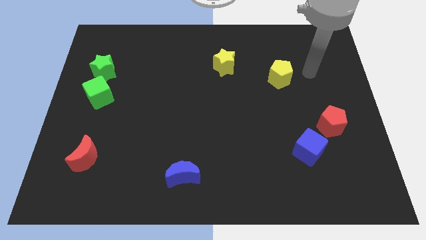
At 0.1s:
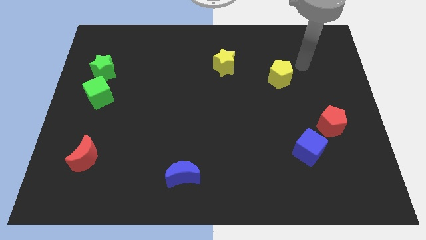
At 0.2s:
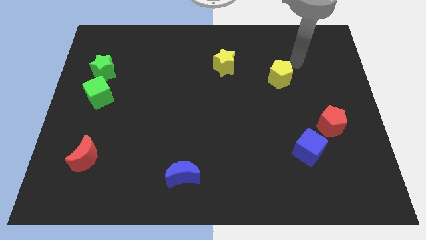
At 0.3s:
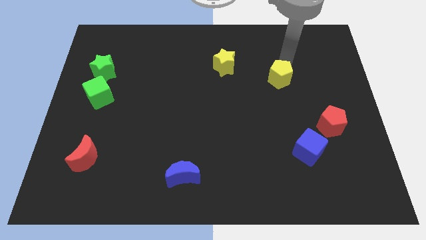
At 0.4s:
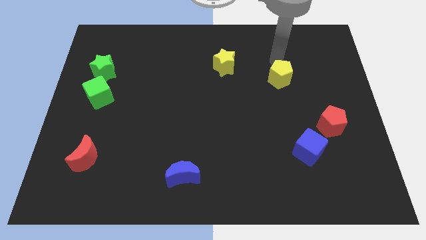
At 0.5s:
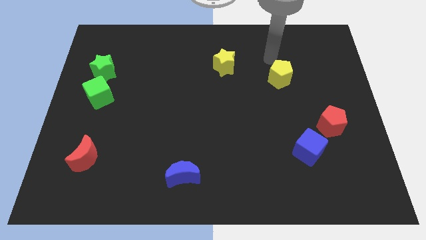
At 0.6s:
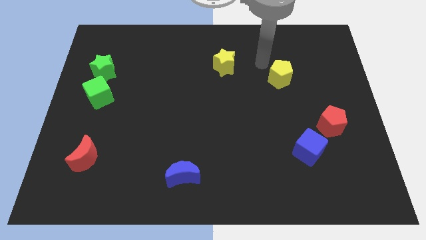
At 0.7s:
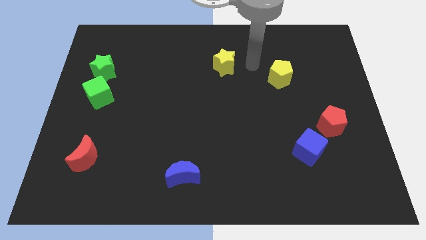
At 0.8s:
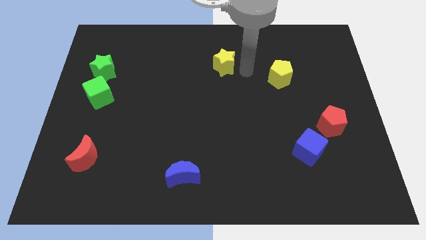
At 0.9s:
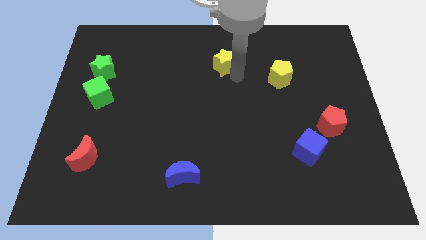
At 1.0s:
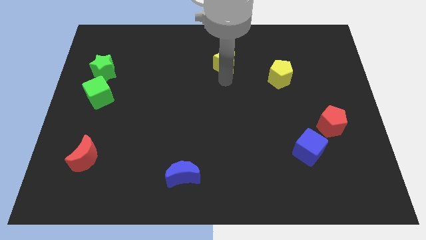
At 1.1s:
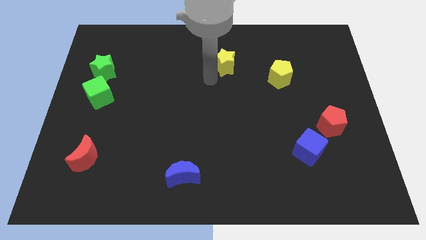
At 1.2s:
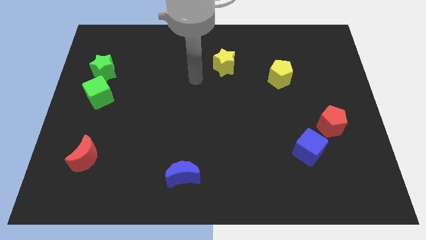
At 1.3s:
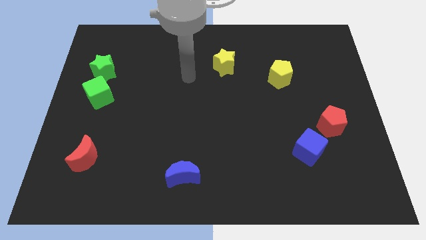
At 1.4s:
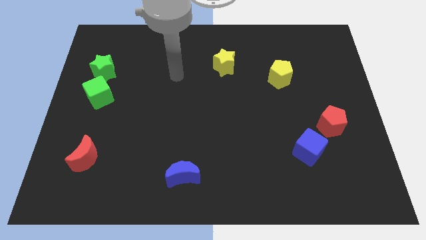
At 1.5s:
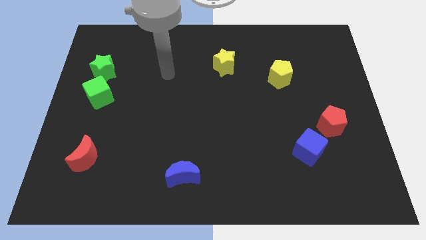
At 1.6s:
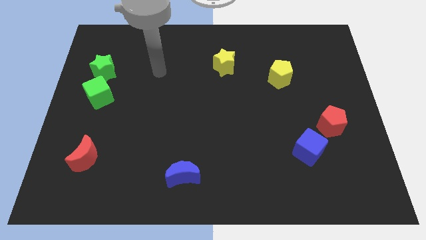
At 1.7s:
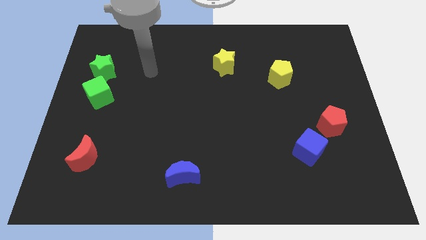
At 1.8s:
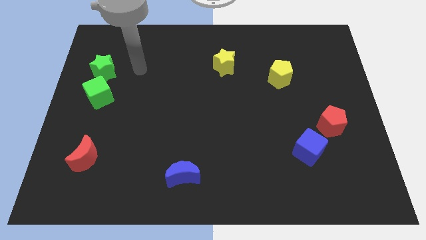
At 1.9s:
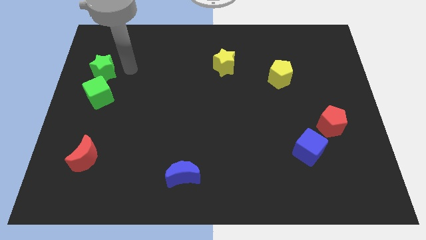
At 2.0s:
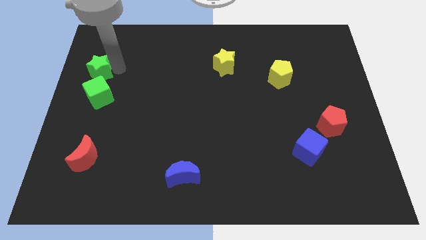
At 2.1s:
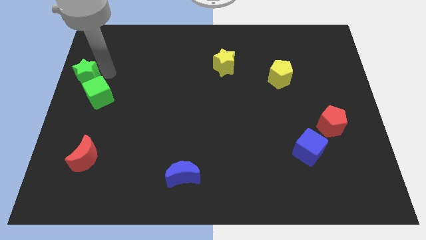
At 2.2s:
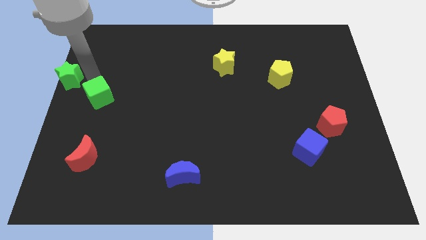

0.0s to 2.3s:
move the green cube away from the green star

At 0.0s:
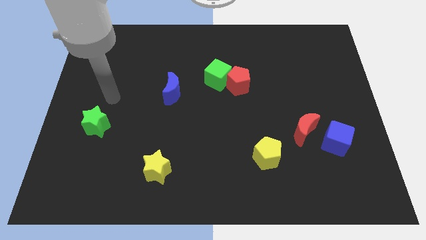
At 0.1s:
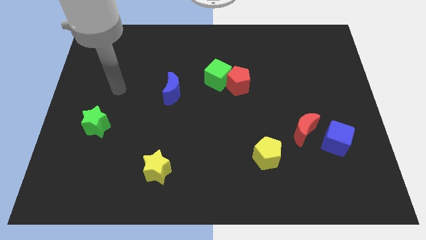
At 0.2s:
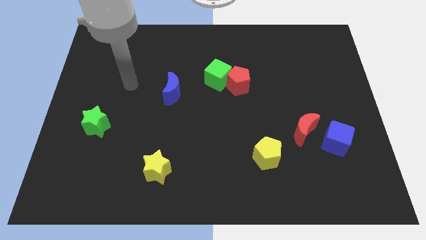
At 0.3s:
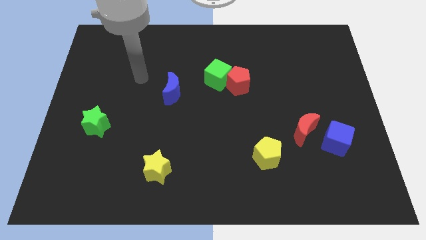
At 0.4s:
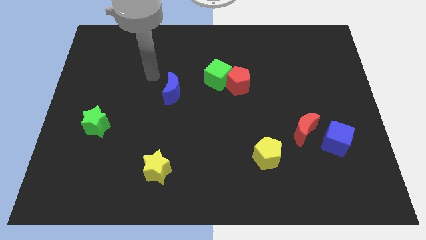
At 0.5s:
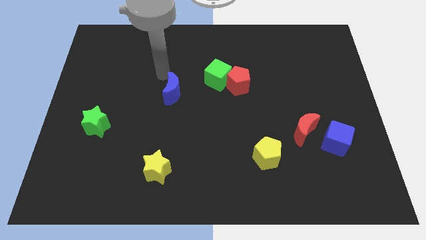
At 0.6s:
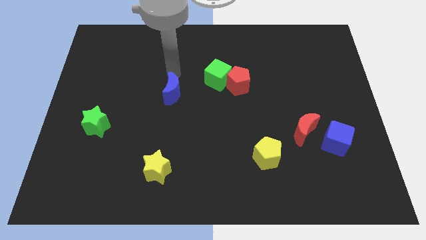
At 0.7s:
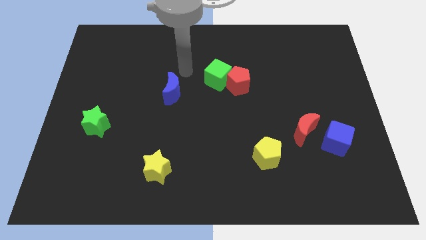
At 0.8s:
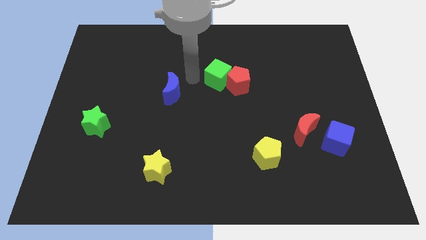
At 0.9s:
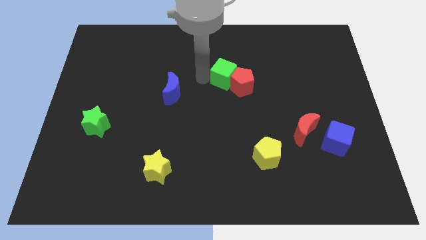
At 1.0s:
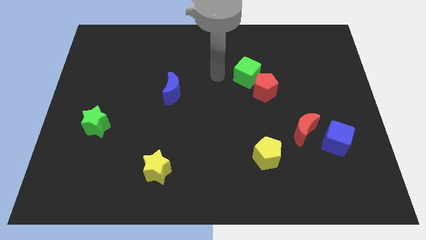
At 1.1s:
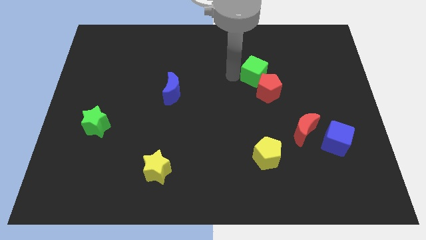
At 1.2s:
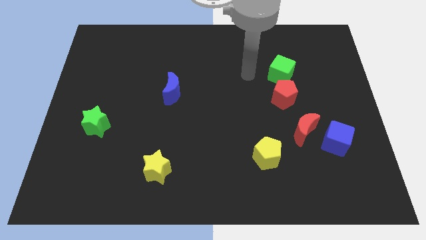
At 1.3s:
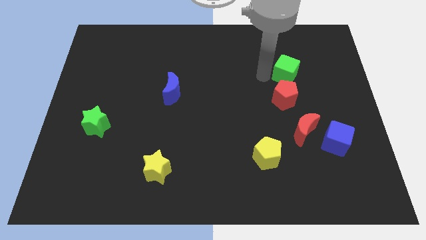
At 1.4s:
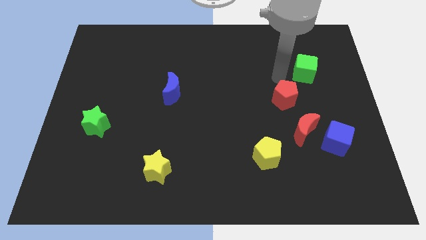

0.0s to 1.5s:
move the red pentagon away from the green cube

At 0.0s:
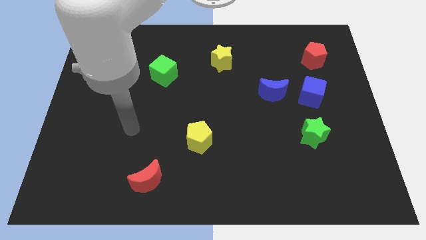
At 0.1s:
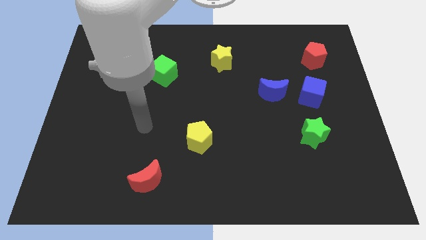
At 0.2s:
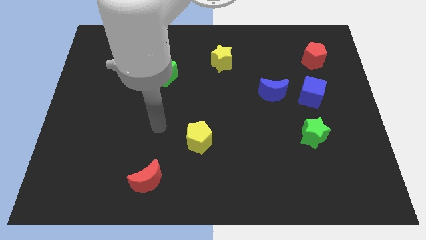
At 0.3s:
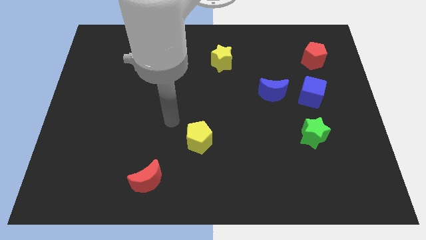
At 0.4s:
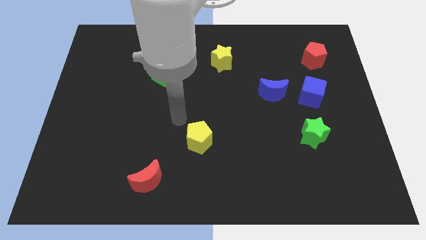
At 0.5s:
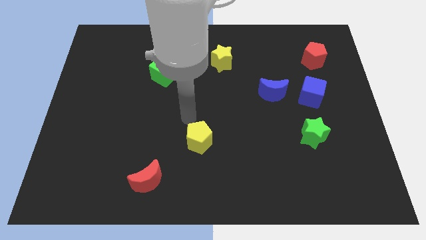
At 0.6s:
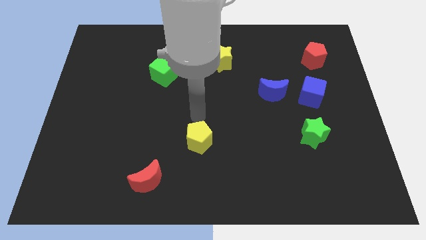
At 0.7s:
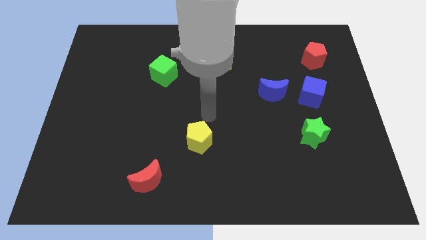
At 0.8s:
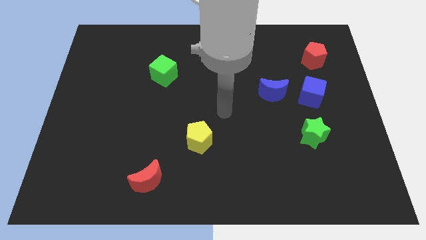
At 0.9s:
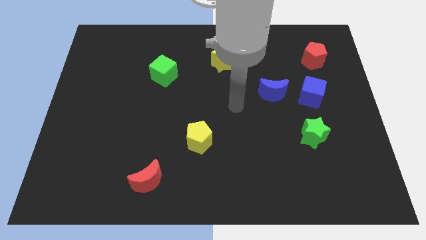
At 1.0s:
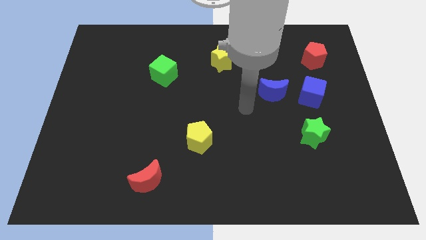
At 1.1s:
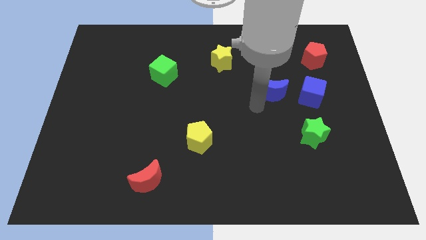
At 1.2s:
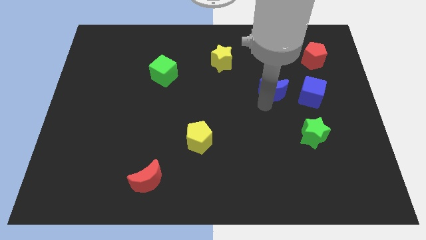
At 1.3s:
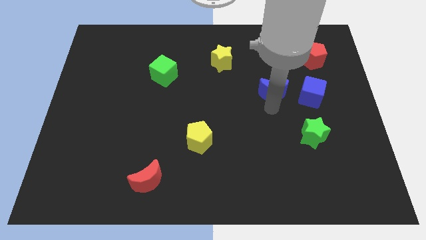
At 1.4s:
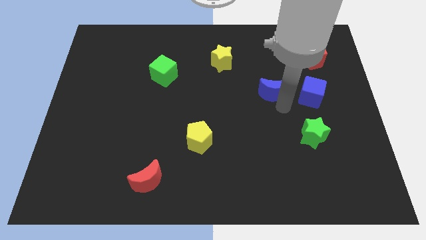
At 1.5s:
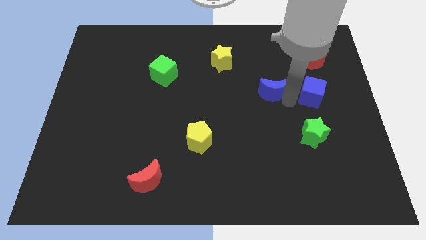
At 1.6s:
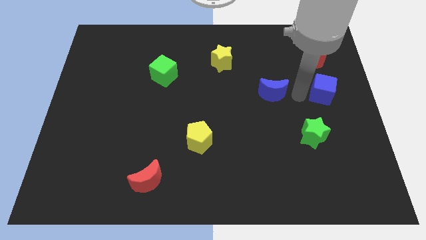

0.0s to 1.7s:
separate the blue moon from the blue cube

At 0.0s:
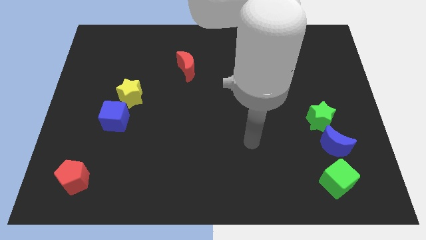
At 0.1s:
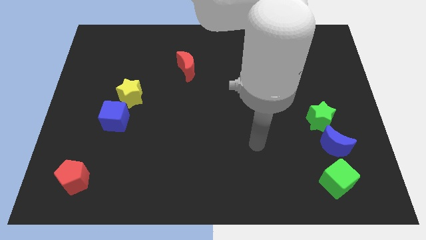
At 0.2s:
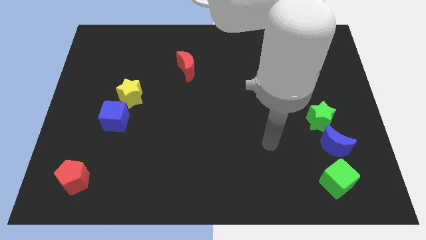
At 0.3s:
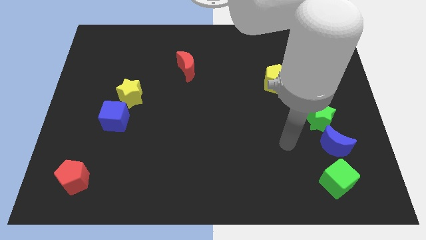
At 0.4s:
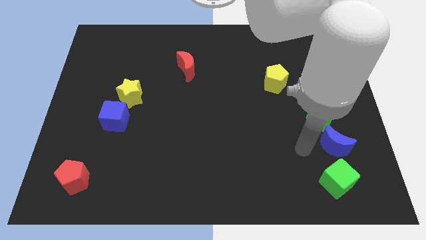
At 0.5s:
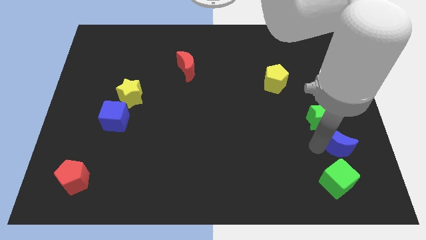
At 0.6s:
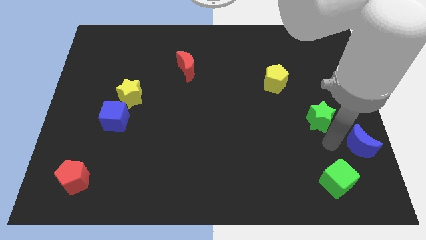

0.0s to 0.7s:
separate the green star from the blue moon

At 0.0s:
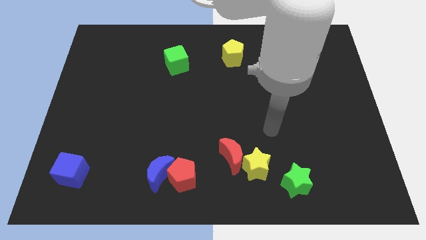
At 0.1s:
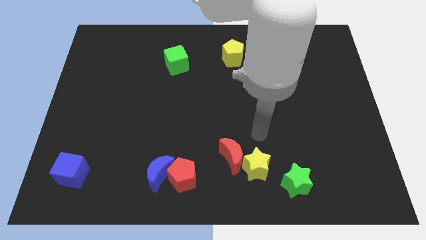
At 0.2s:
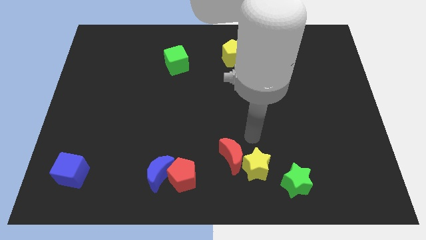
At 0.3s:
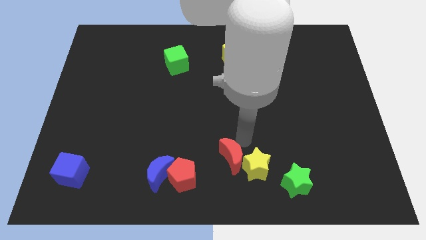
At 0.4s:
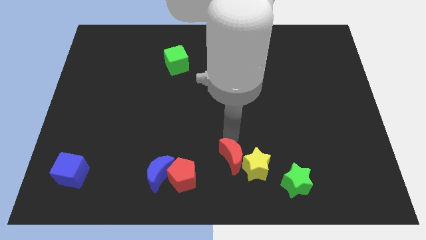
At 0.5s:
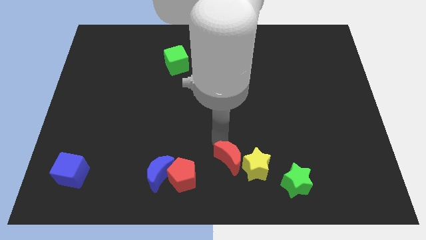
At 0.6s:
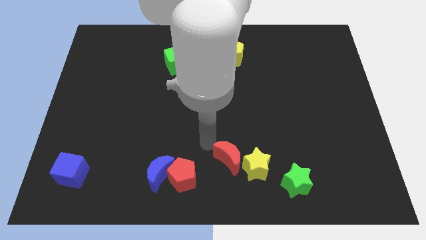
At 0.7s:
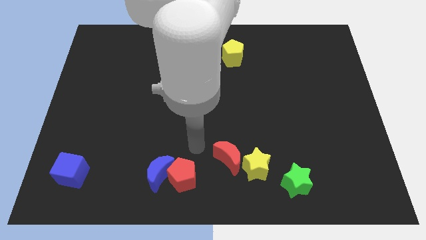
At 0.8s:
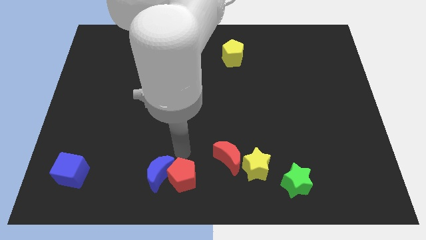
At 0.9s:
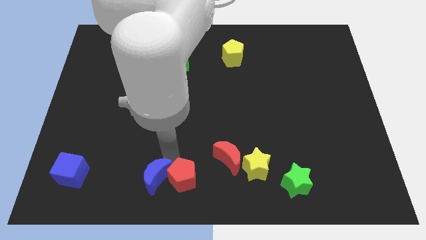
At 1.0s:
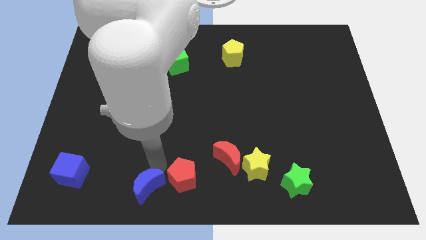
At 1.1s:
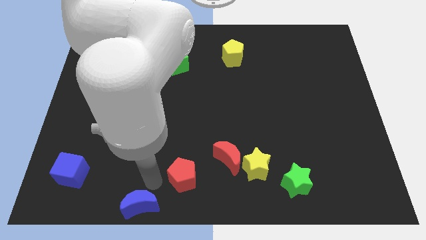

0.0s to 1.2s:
pull the red pentagon apart from the blue moon

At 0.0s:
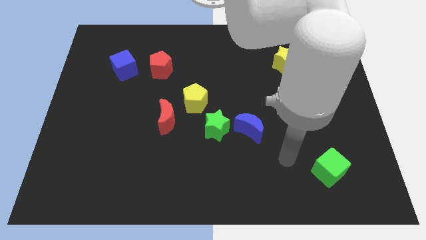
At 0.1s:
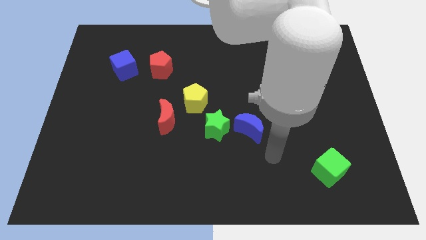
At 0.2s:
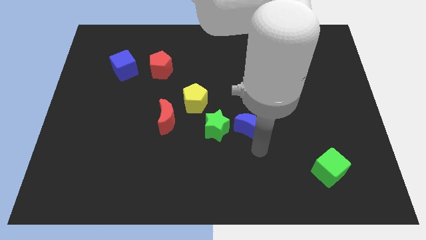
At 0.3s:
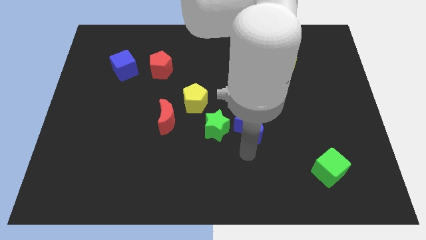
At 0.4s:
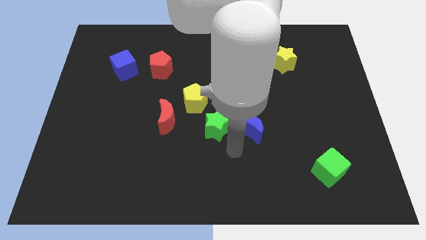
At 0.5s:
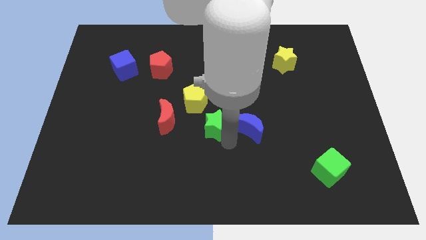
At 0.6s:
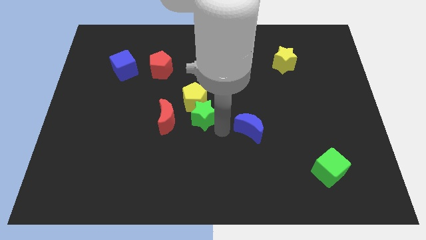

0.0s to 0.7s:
pull the blue moon apart from the green star

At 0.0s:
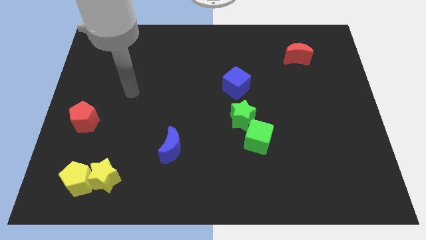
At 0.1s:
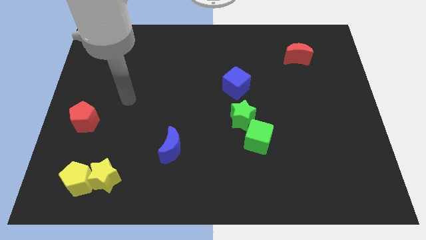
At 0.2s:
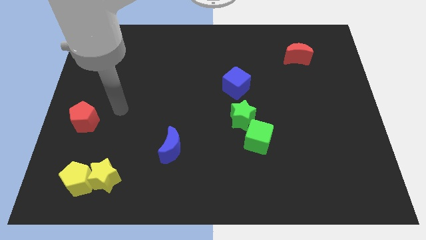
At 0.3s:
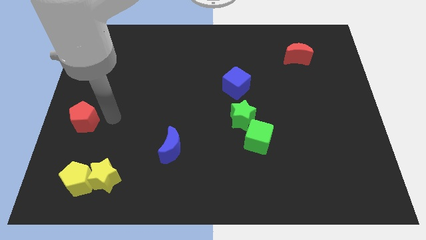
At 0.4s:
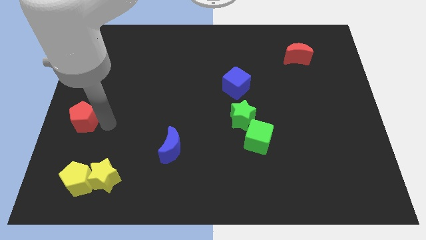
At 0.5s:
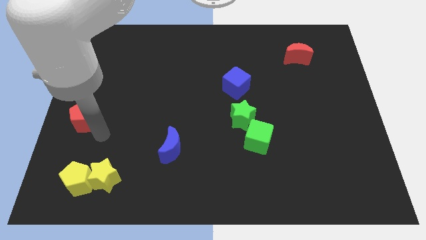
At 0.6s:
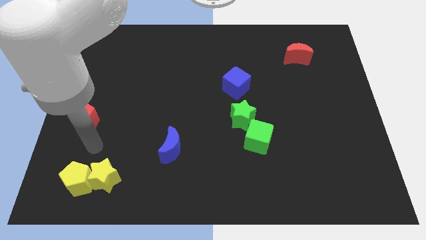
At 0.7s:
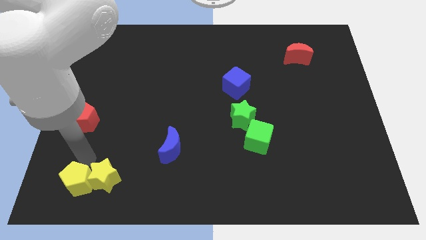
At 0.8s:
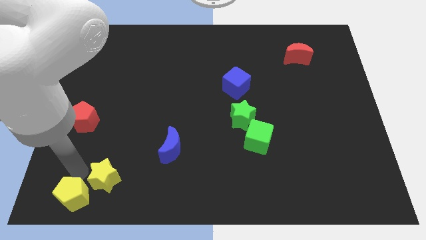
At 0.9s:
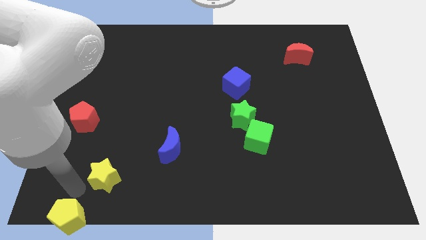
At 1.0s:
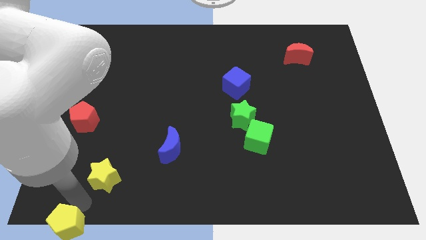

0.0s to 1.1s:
pull the yellow star apart from the yellow pentagon

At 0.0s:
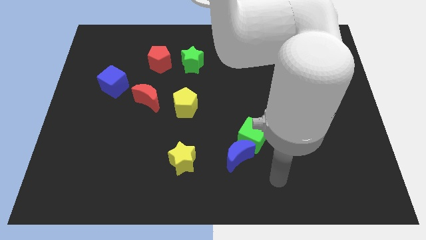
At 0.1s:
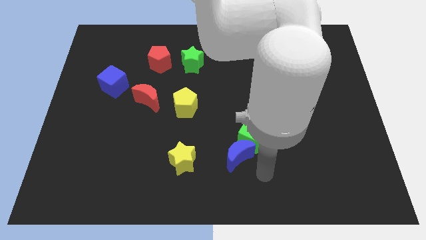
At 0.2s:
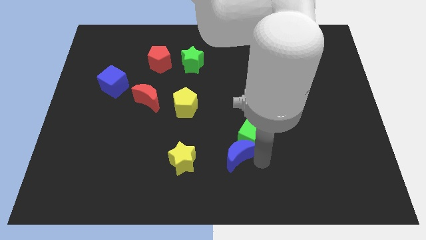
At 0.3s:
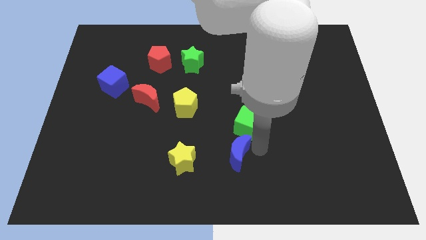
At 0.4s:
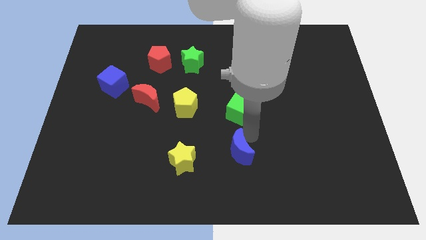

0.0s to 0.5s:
pull the blue moon apart from the green cube
